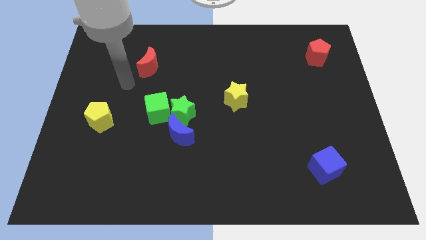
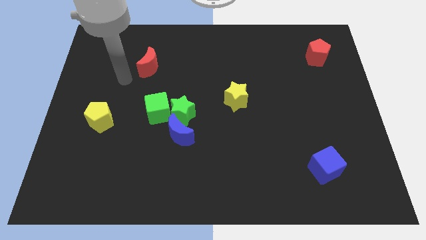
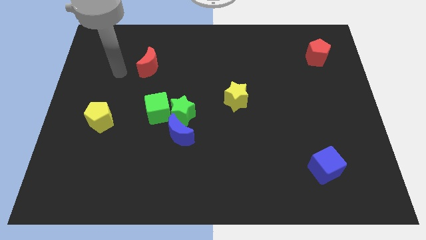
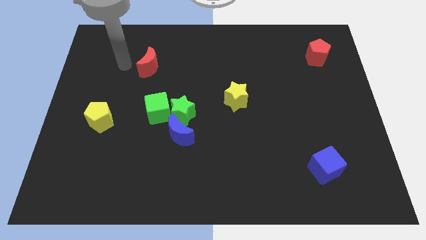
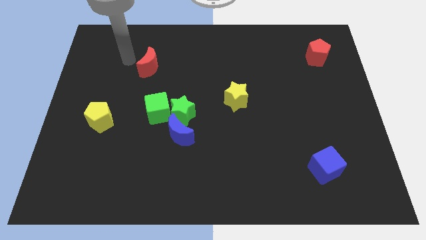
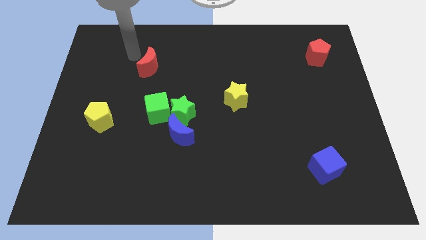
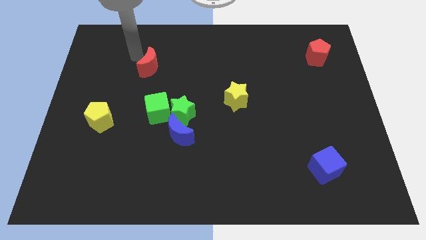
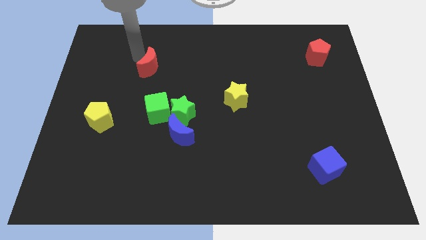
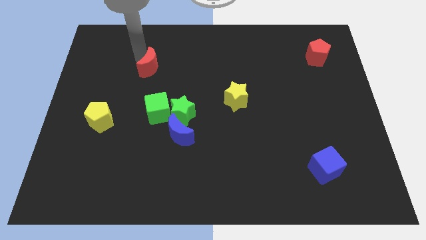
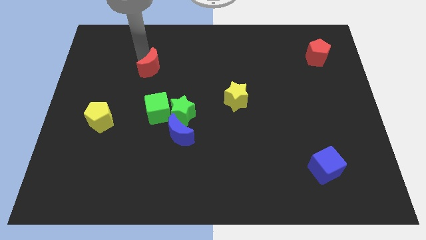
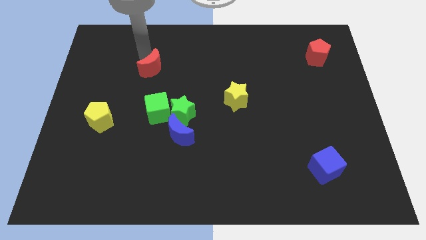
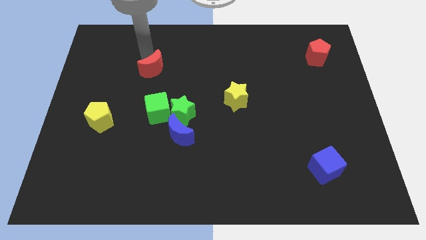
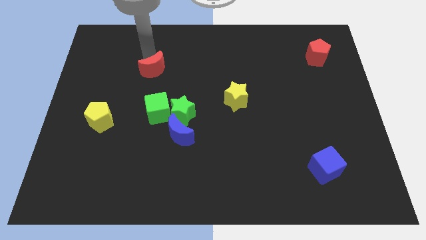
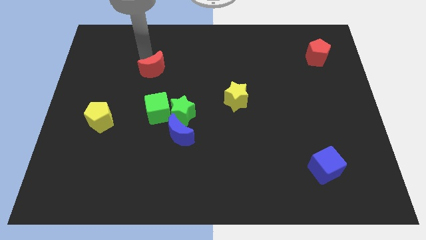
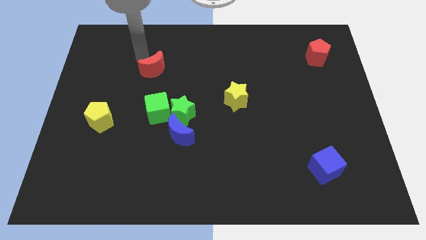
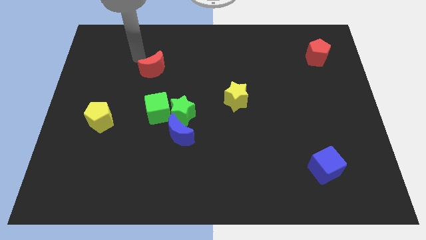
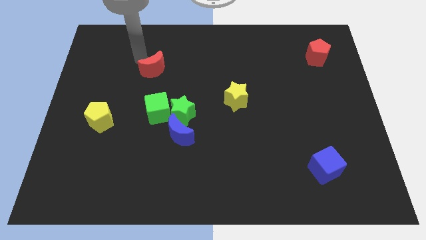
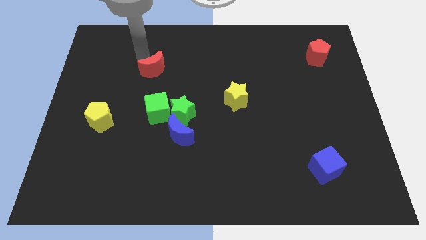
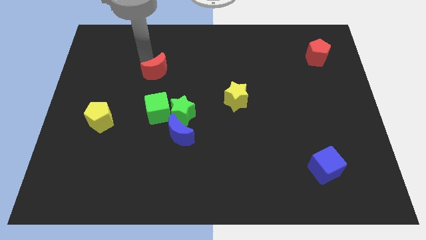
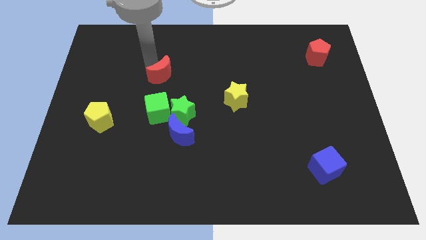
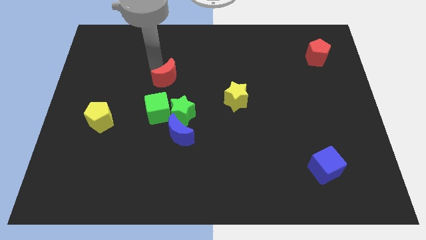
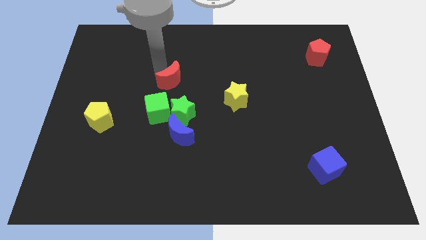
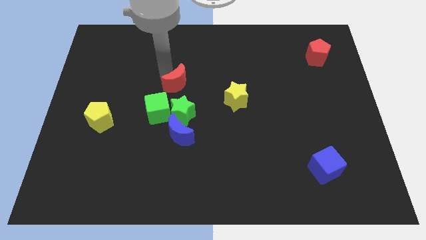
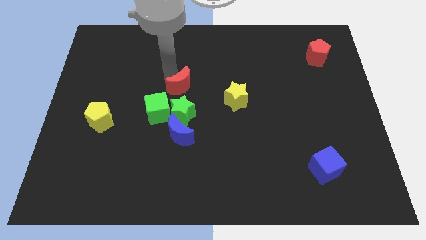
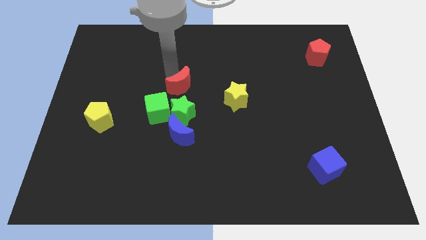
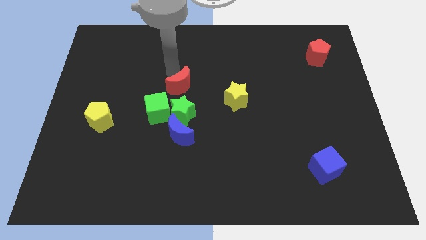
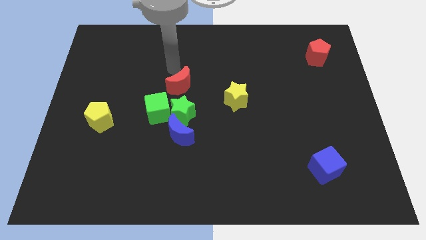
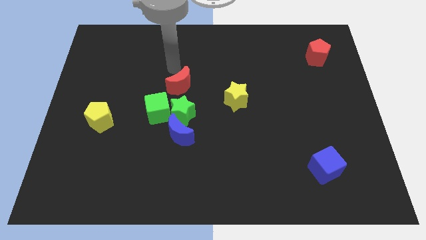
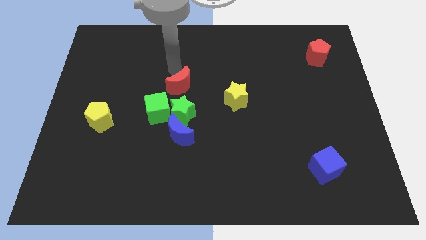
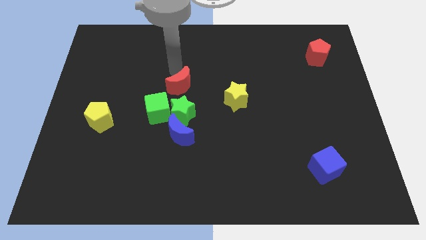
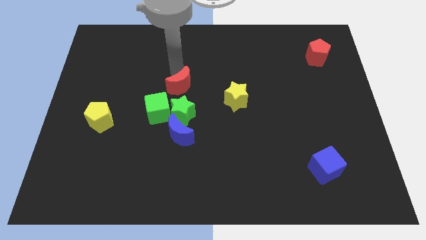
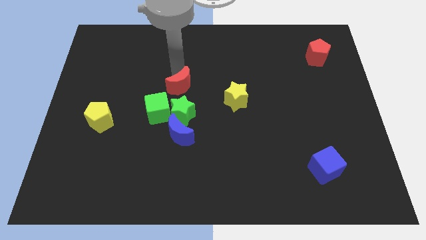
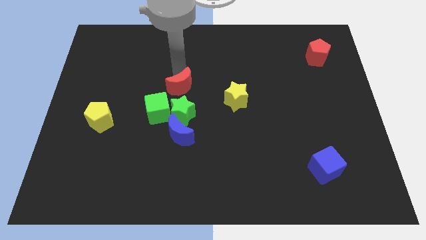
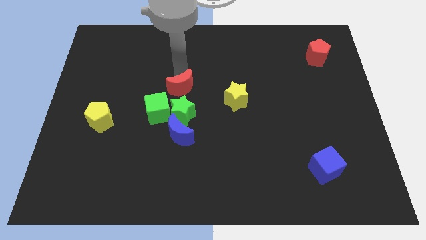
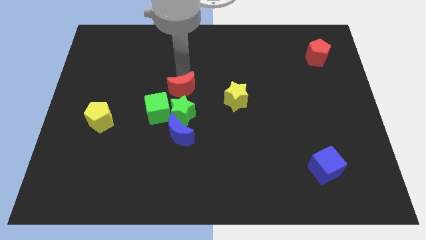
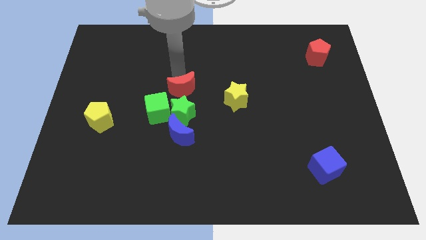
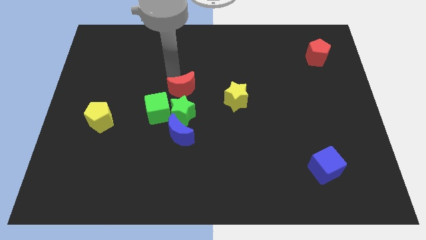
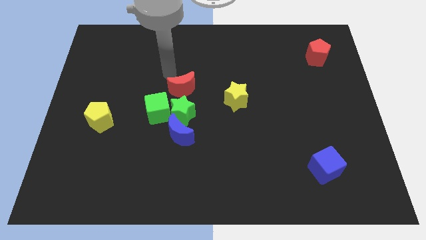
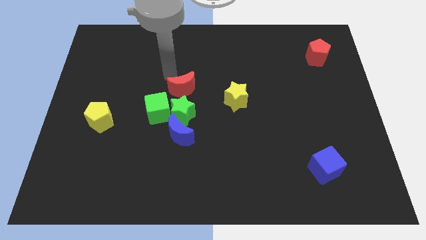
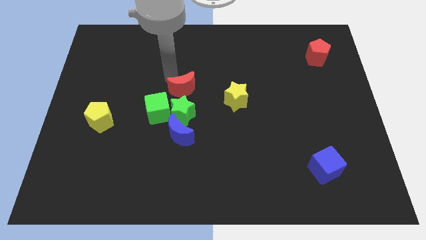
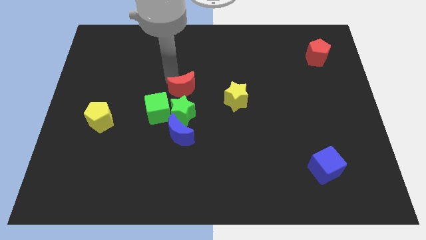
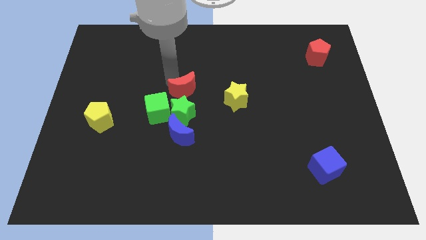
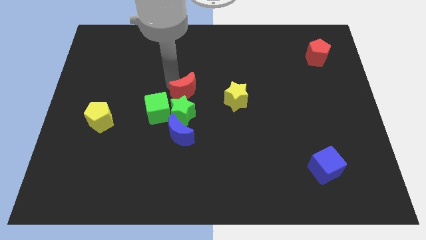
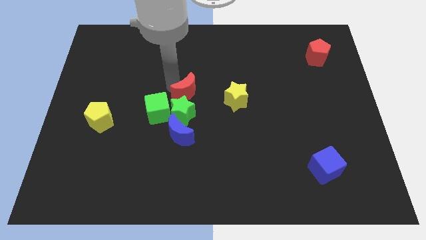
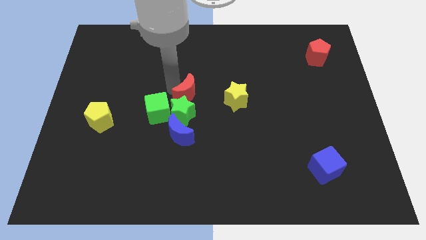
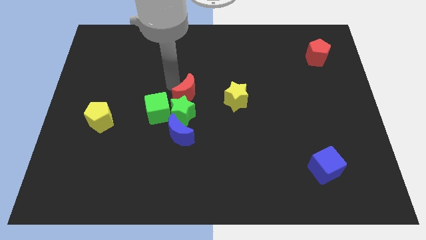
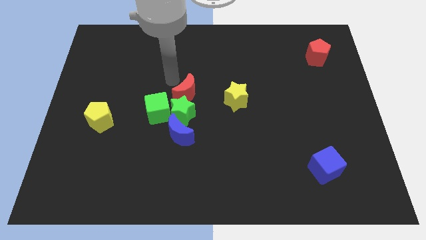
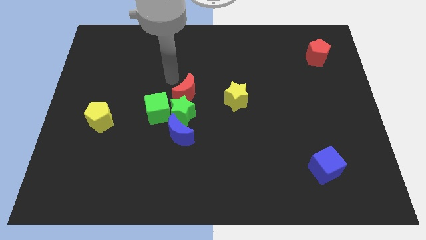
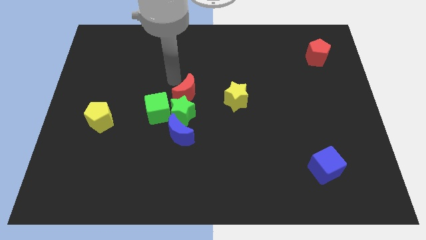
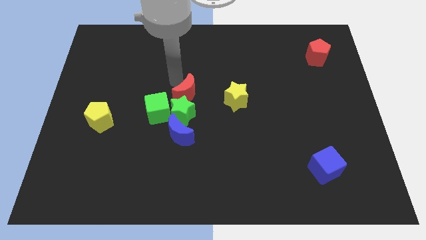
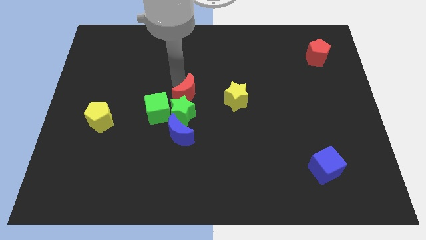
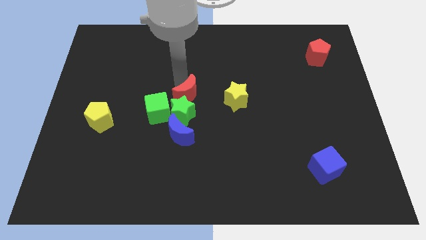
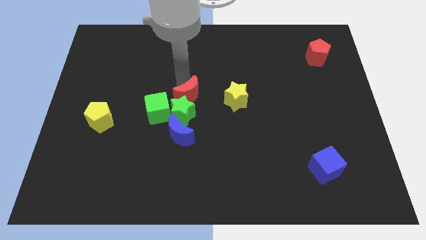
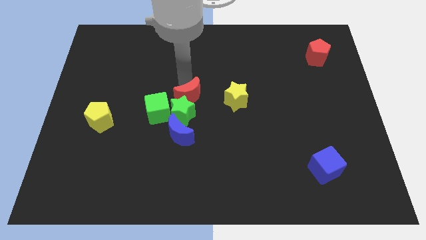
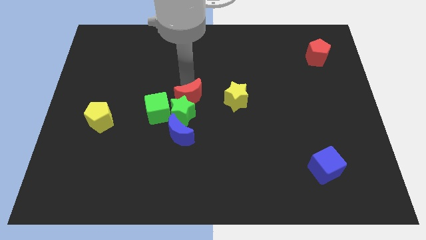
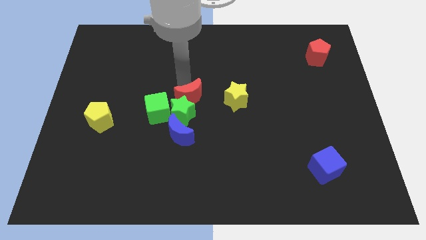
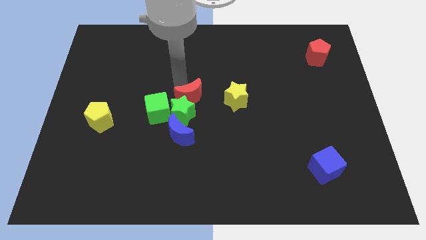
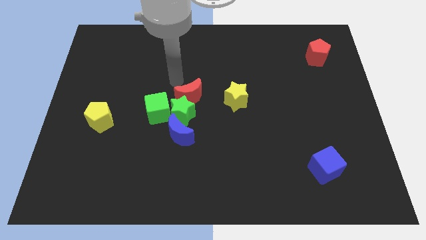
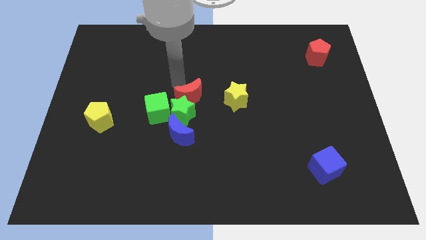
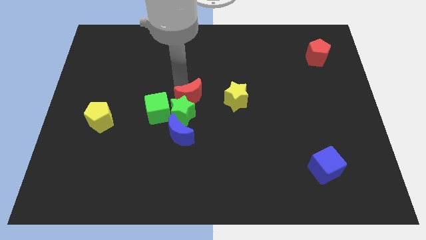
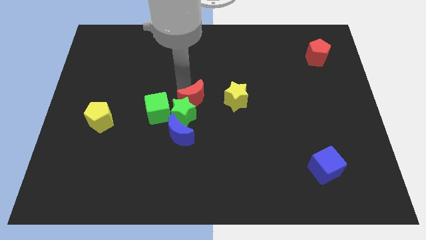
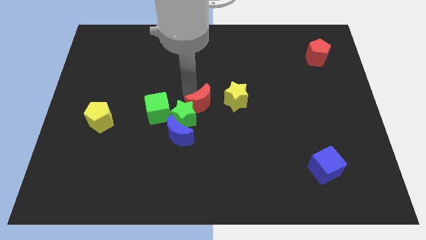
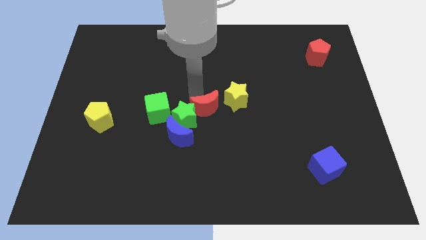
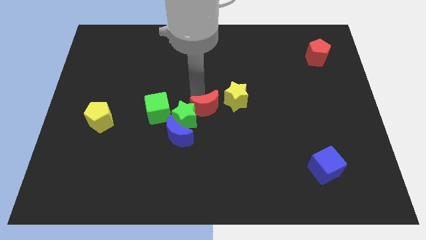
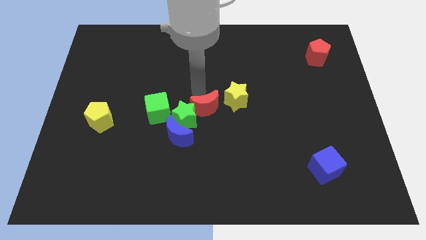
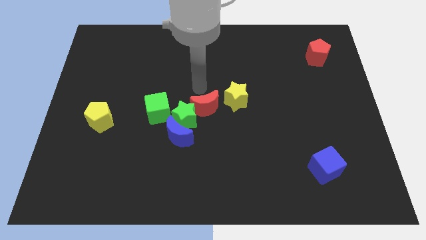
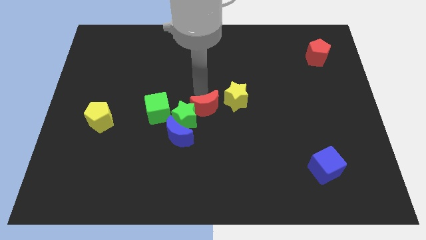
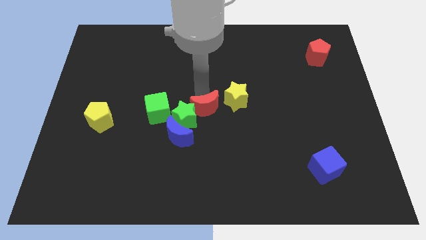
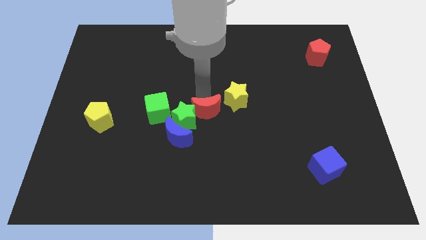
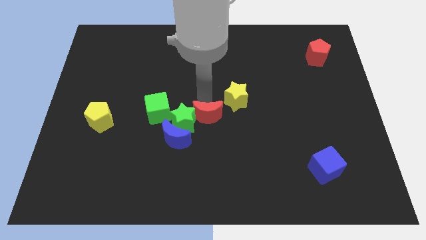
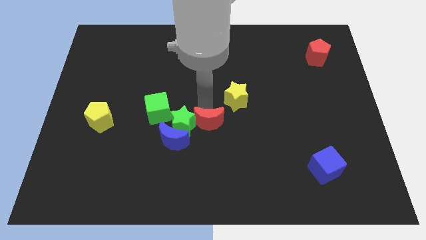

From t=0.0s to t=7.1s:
slide the red moon just right of the blue moon

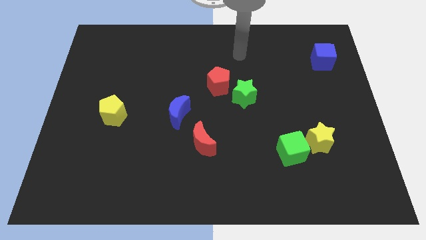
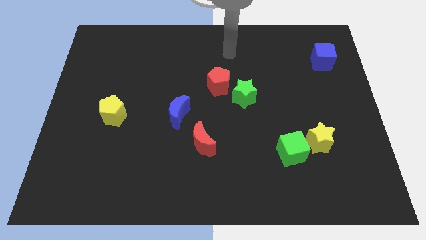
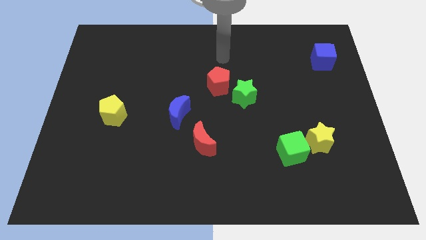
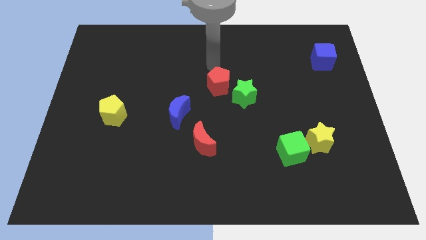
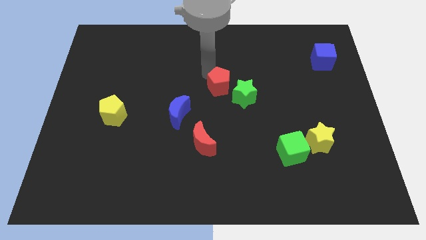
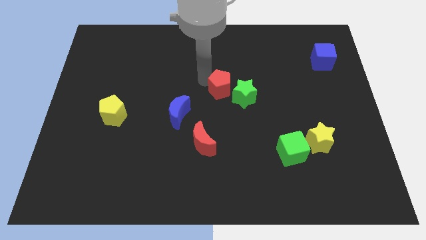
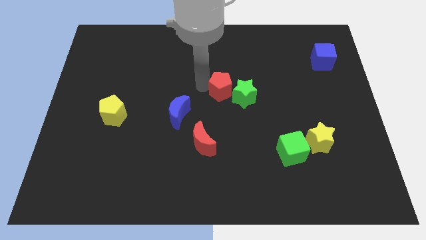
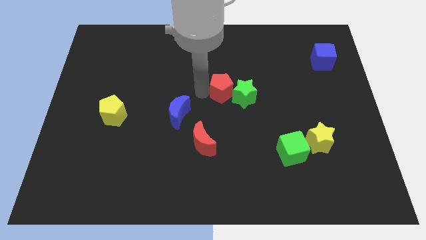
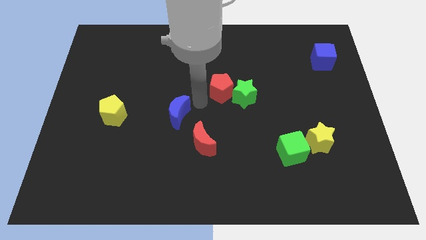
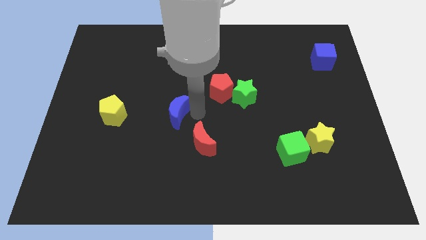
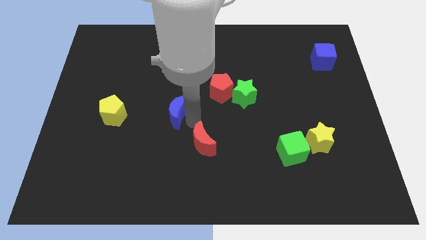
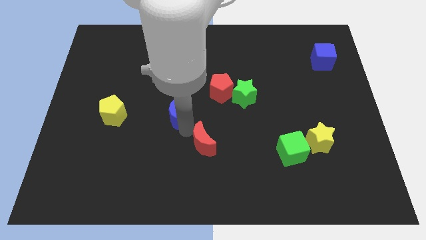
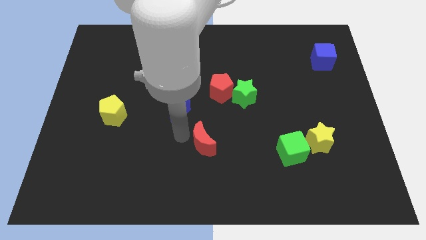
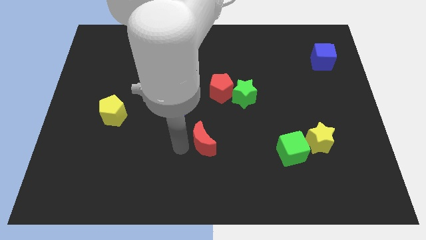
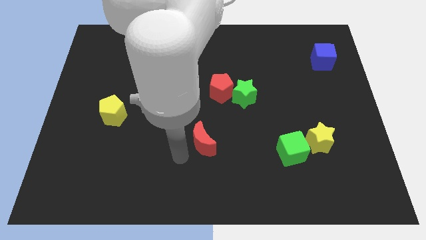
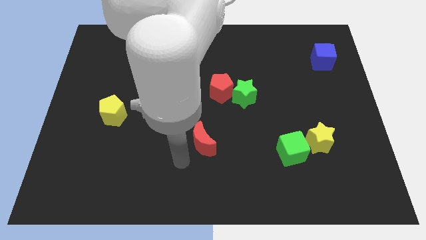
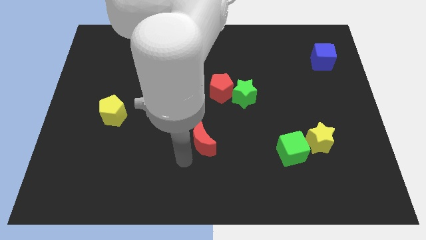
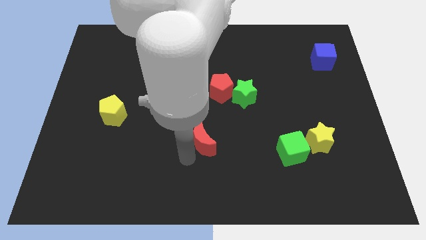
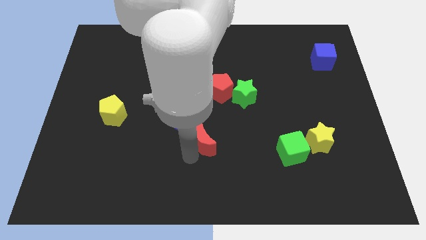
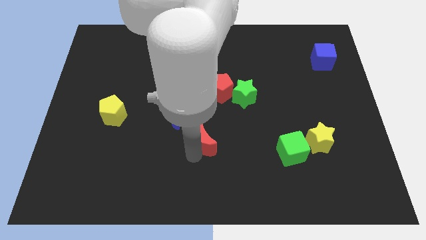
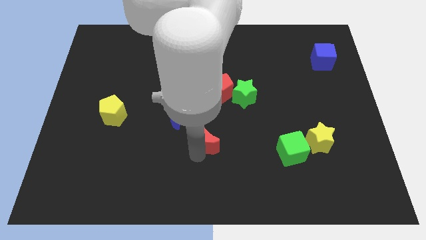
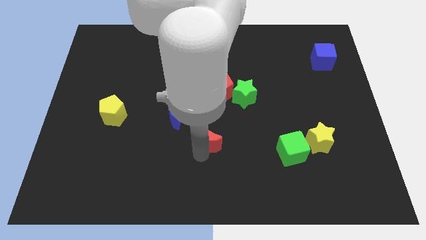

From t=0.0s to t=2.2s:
slide the red moon below the red pentagon
